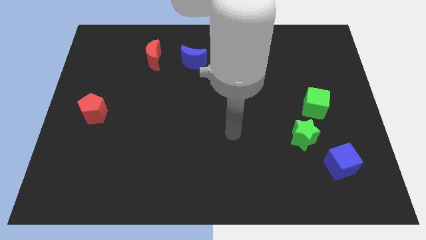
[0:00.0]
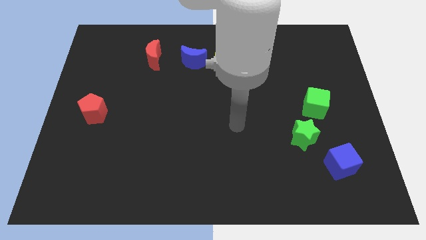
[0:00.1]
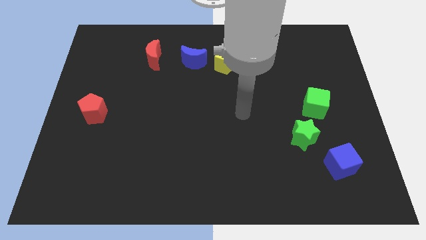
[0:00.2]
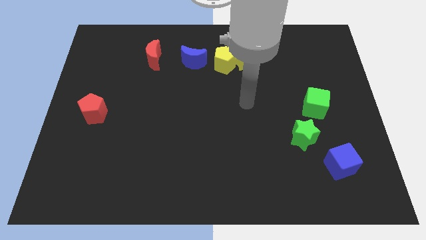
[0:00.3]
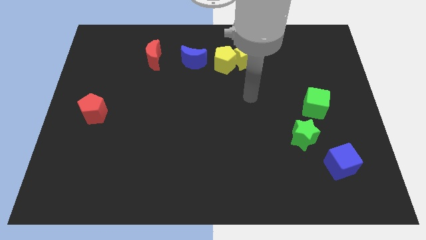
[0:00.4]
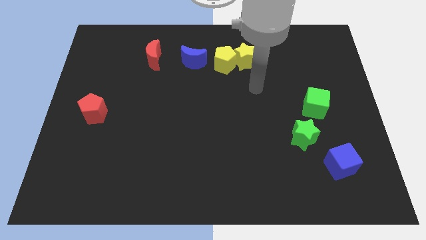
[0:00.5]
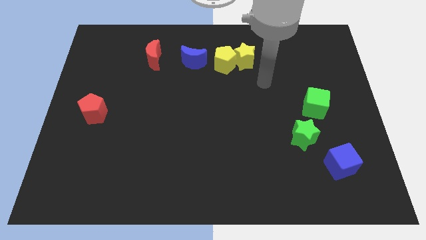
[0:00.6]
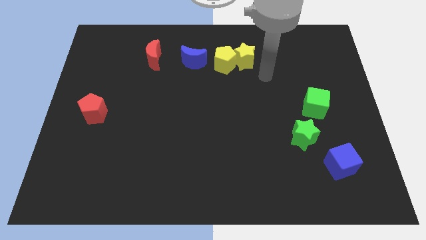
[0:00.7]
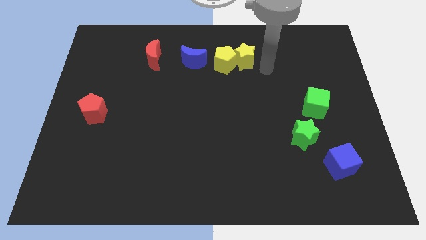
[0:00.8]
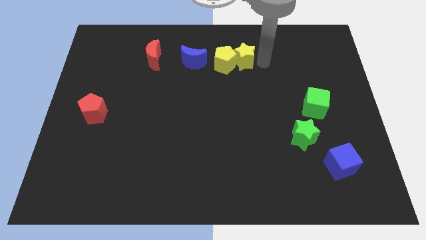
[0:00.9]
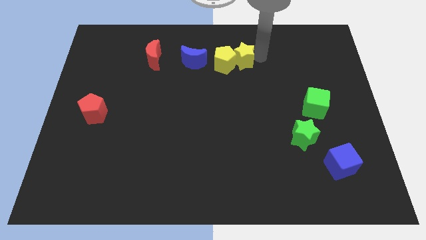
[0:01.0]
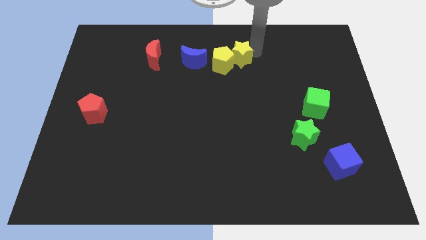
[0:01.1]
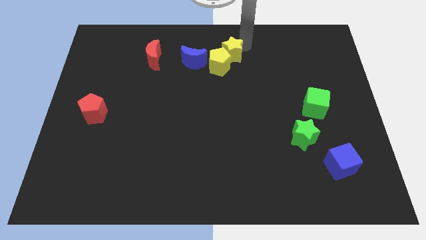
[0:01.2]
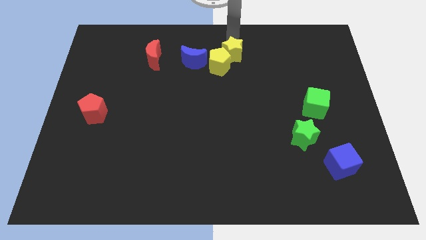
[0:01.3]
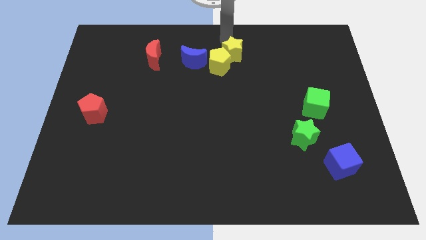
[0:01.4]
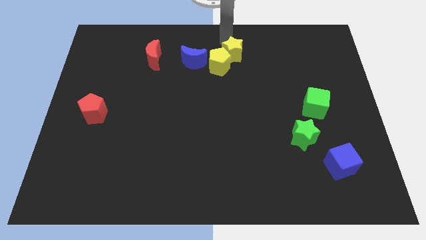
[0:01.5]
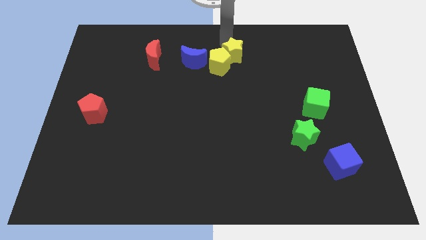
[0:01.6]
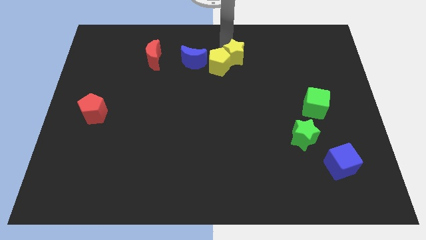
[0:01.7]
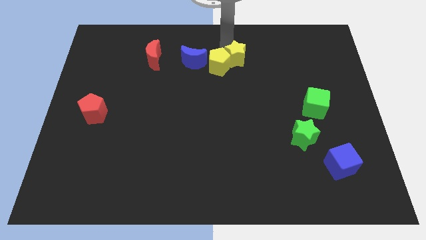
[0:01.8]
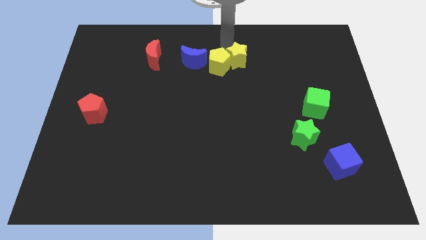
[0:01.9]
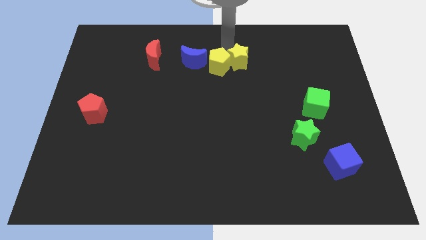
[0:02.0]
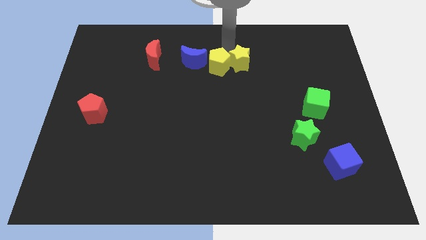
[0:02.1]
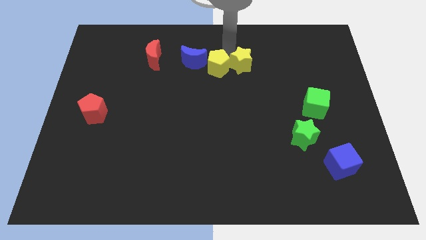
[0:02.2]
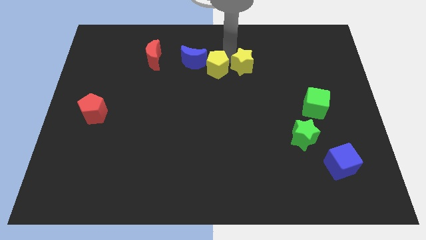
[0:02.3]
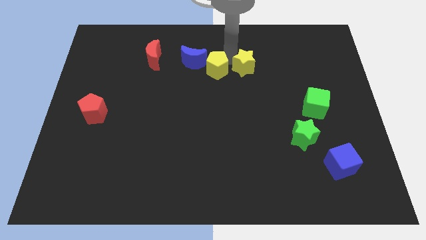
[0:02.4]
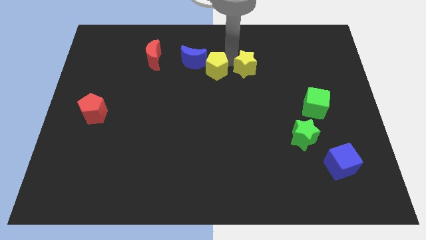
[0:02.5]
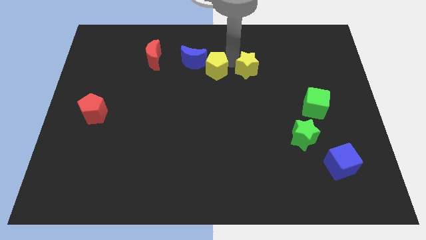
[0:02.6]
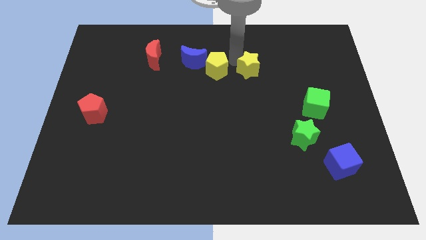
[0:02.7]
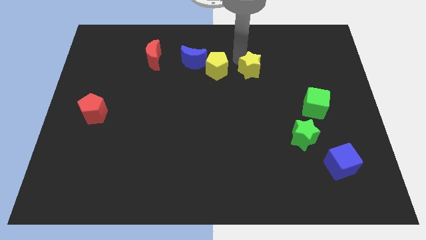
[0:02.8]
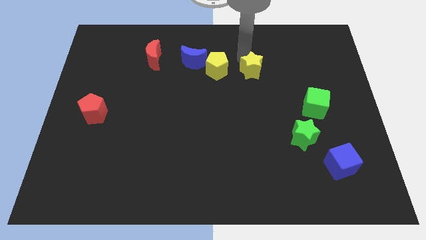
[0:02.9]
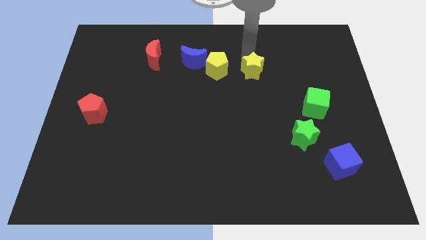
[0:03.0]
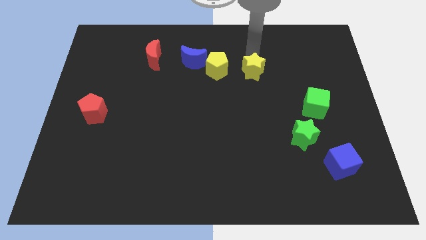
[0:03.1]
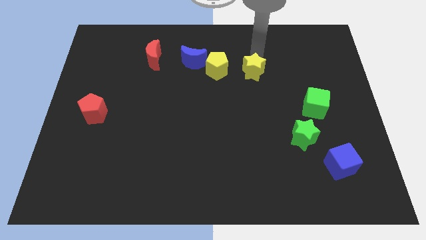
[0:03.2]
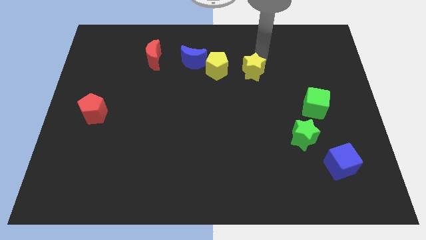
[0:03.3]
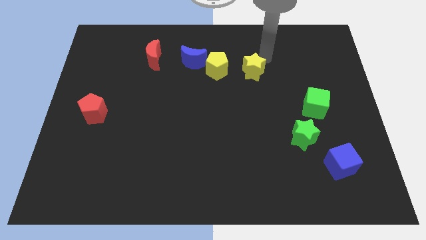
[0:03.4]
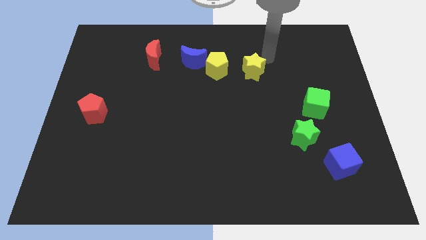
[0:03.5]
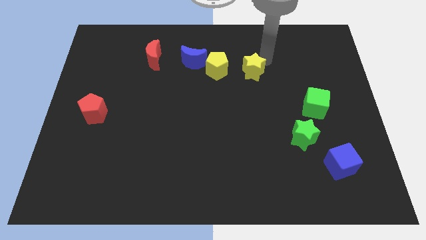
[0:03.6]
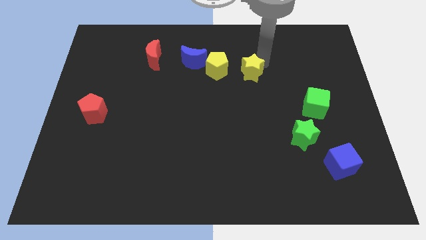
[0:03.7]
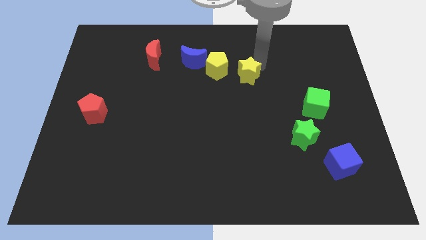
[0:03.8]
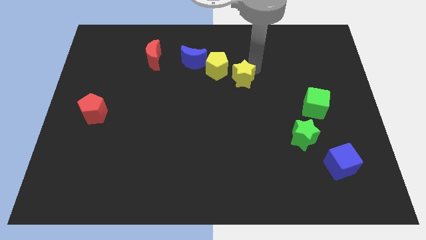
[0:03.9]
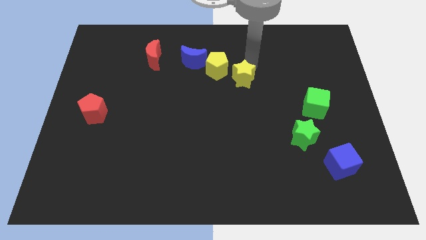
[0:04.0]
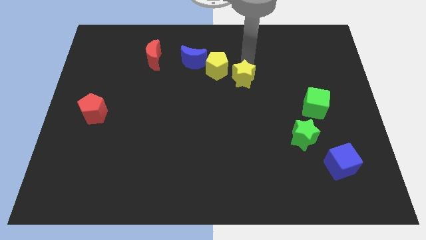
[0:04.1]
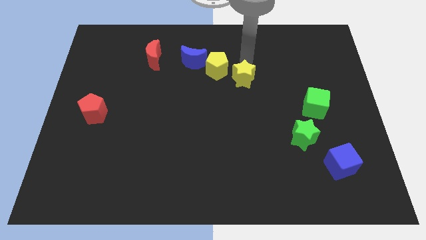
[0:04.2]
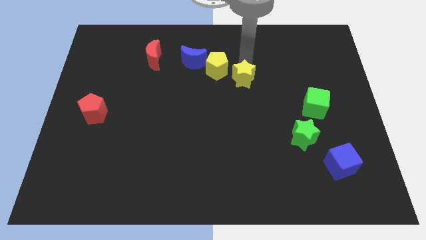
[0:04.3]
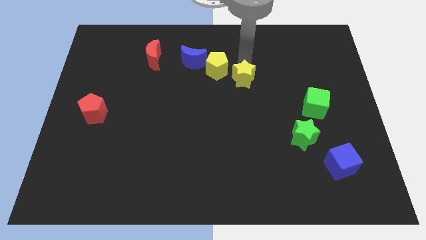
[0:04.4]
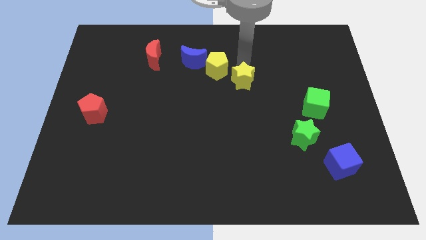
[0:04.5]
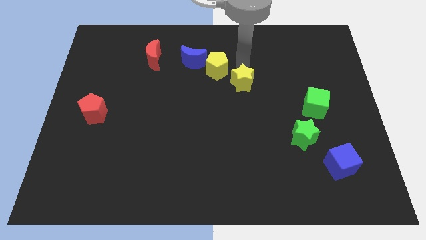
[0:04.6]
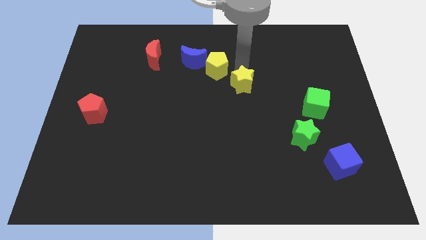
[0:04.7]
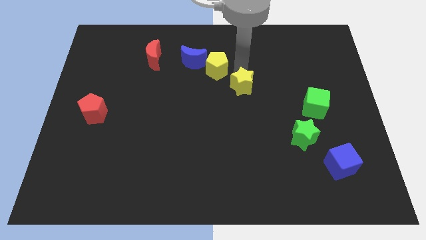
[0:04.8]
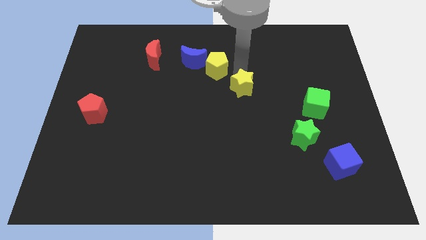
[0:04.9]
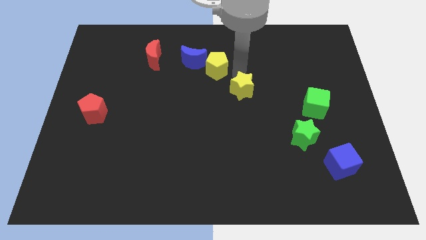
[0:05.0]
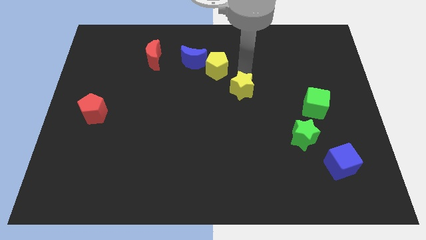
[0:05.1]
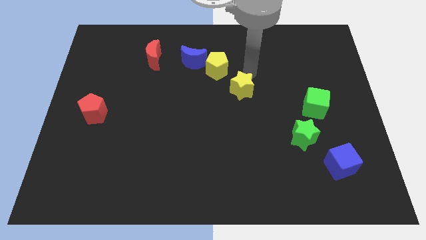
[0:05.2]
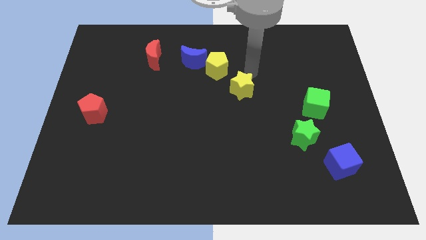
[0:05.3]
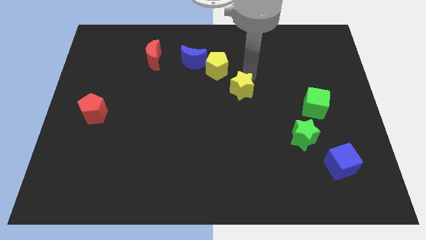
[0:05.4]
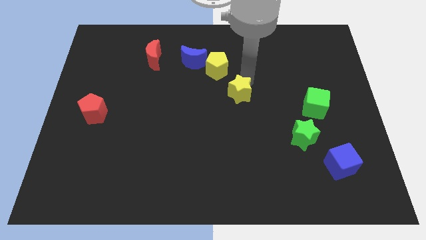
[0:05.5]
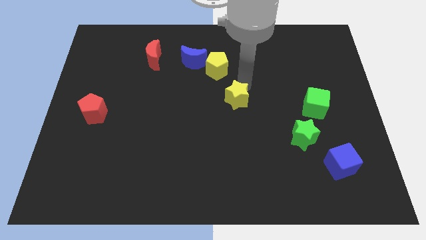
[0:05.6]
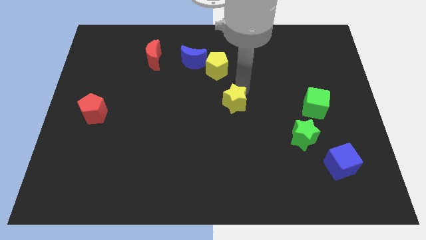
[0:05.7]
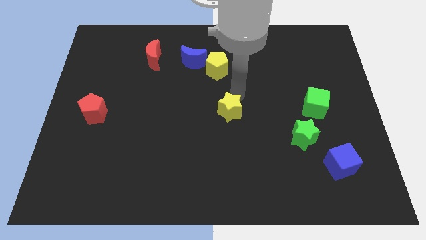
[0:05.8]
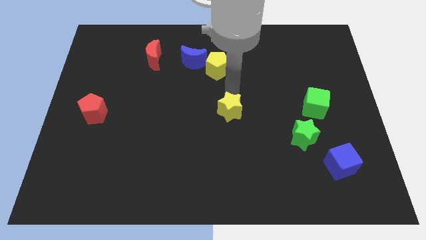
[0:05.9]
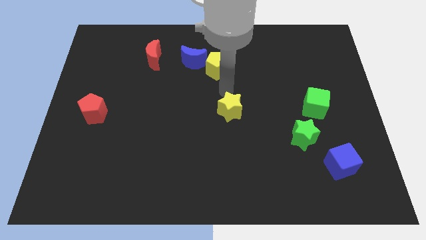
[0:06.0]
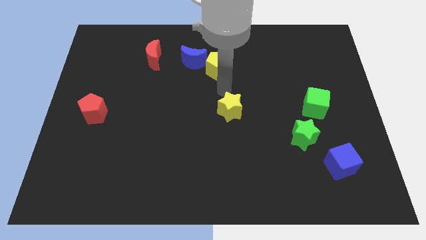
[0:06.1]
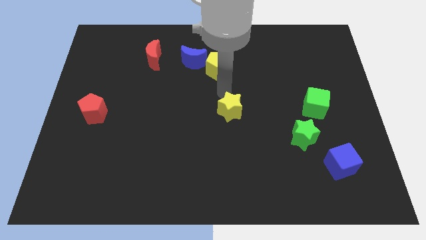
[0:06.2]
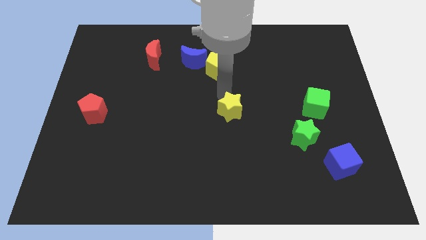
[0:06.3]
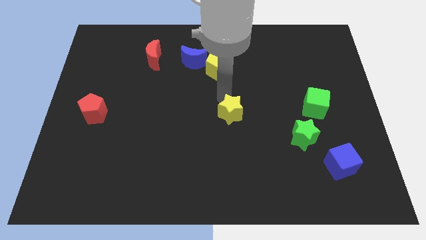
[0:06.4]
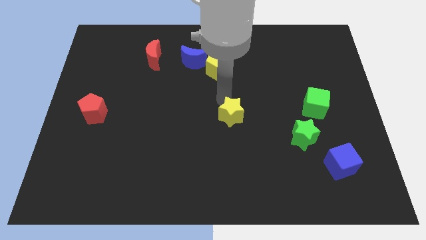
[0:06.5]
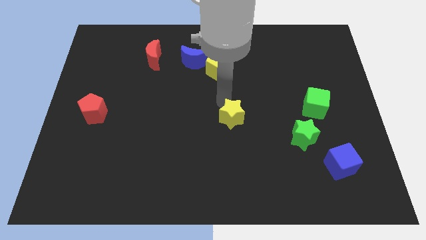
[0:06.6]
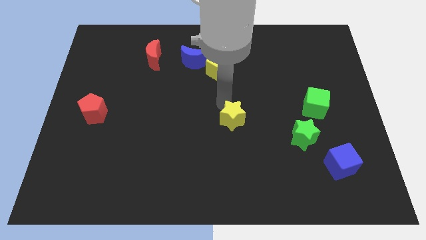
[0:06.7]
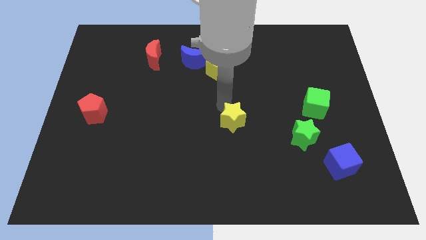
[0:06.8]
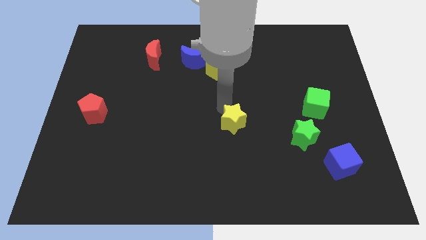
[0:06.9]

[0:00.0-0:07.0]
push the yellow star down

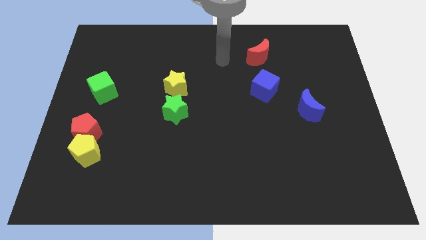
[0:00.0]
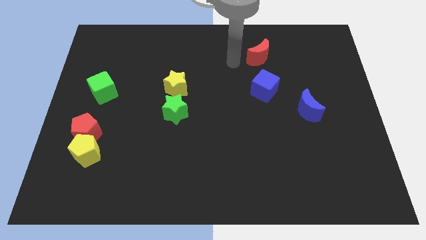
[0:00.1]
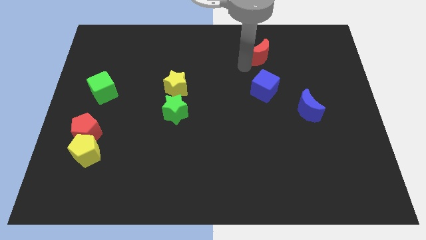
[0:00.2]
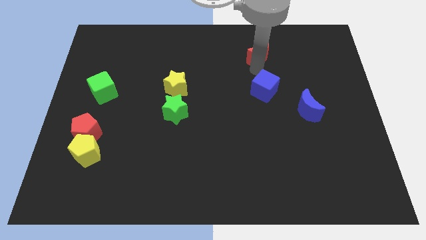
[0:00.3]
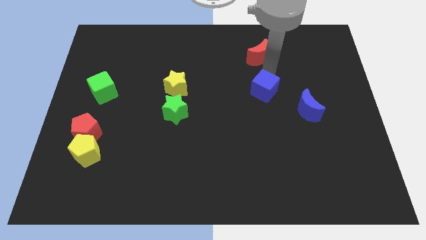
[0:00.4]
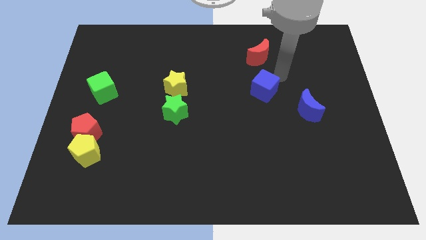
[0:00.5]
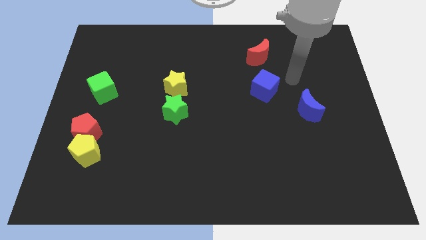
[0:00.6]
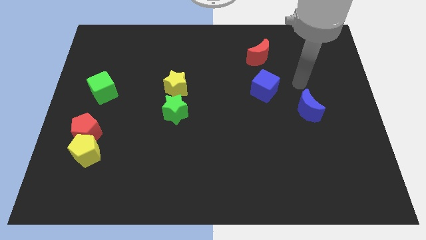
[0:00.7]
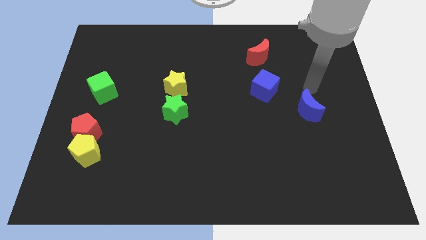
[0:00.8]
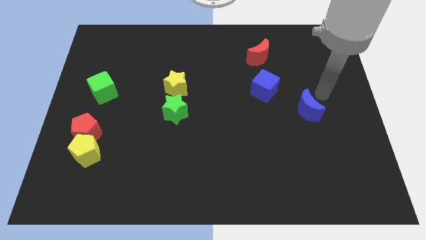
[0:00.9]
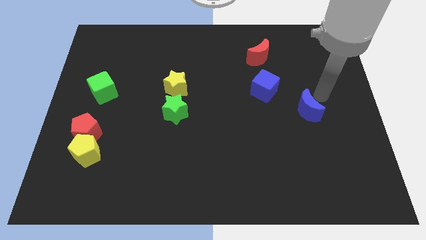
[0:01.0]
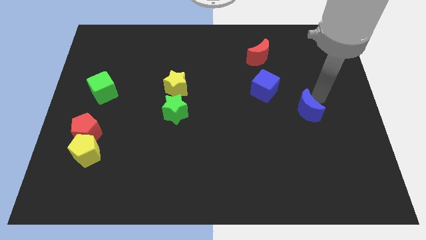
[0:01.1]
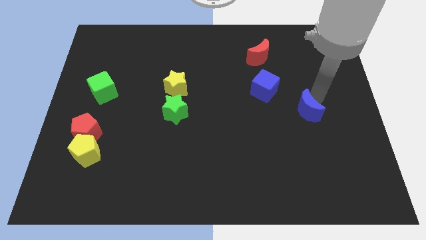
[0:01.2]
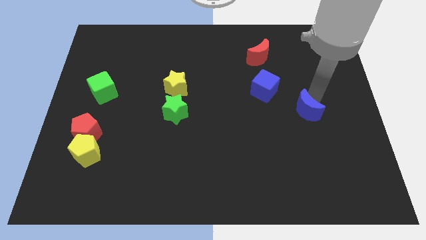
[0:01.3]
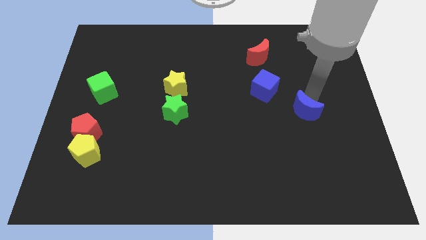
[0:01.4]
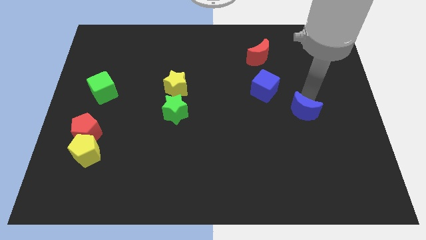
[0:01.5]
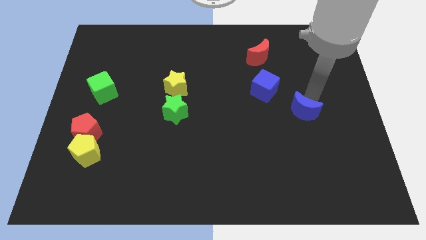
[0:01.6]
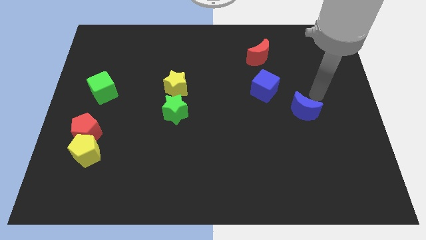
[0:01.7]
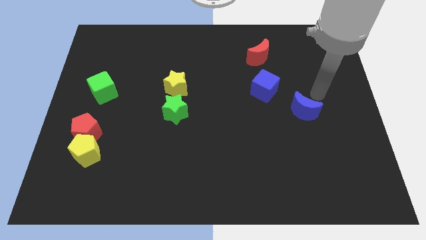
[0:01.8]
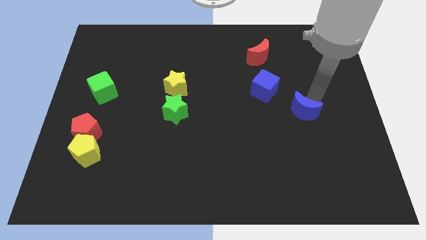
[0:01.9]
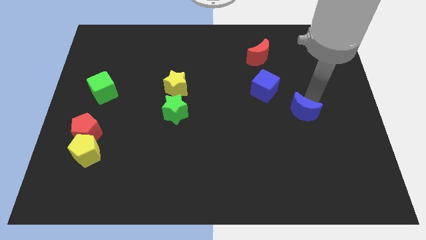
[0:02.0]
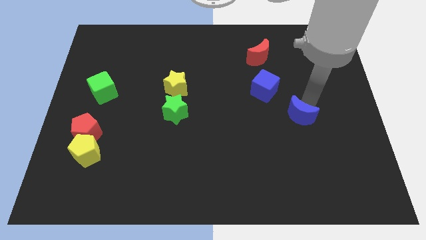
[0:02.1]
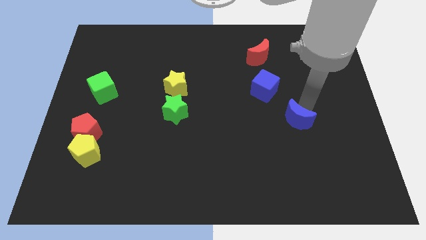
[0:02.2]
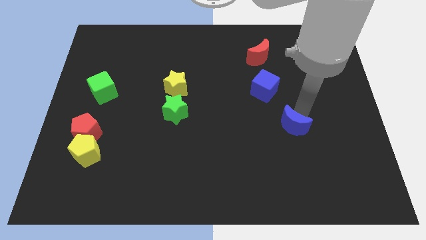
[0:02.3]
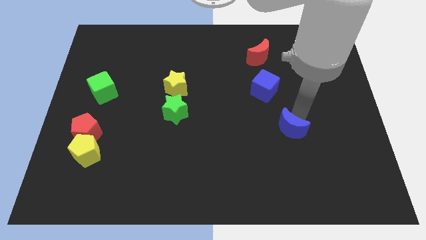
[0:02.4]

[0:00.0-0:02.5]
move the blue moon somewhat down and to the left
